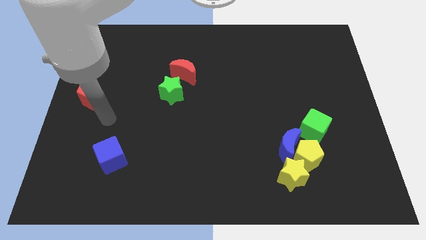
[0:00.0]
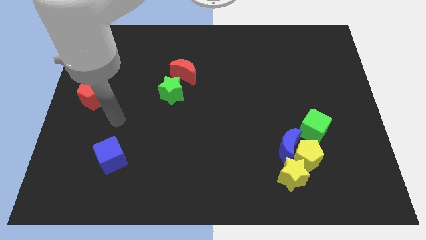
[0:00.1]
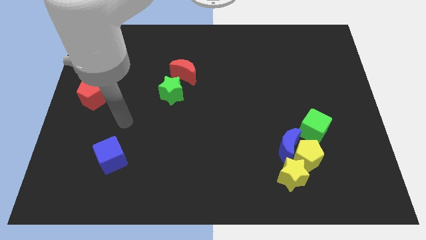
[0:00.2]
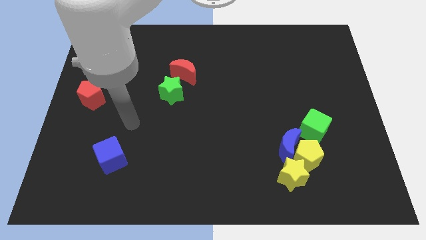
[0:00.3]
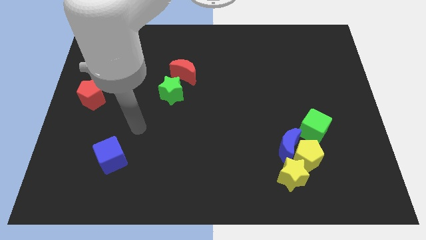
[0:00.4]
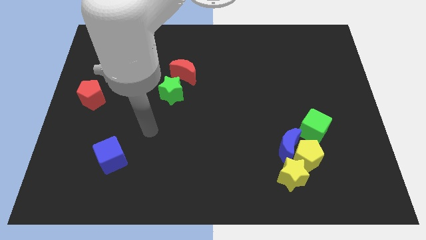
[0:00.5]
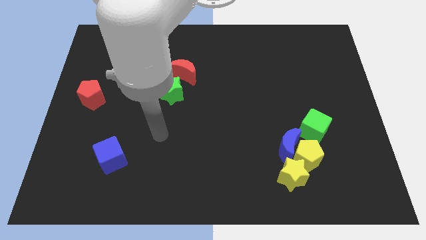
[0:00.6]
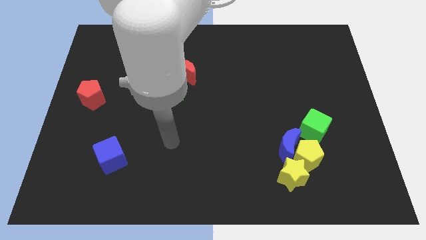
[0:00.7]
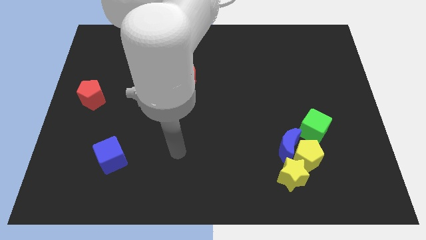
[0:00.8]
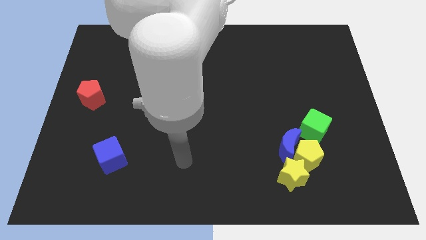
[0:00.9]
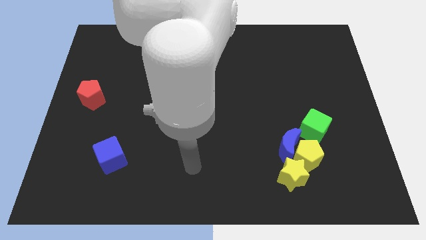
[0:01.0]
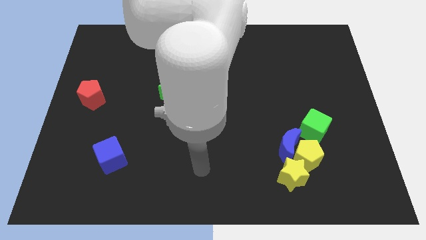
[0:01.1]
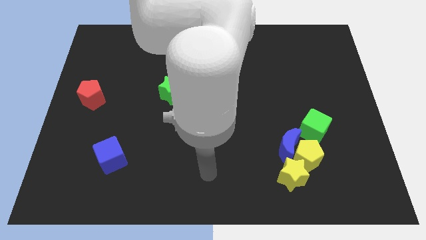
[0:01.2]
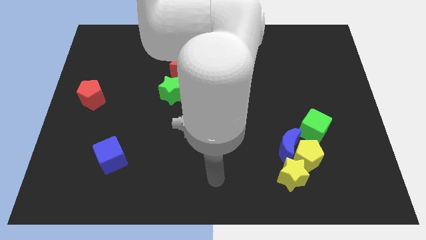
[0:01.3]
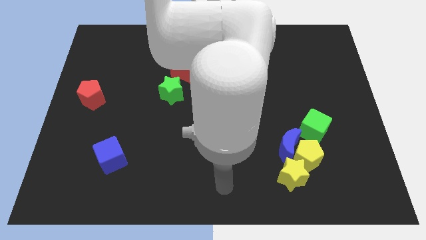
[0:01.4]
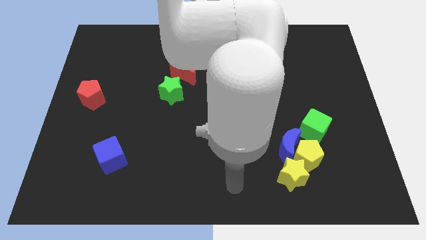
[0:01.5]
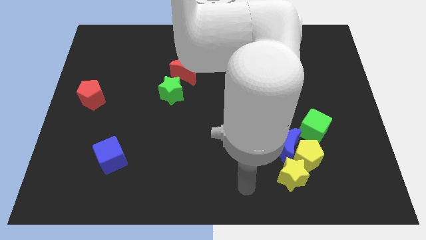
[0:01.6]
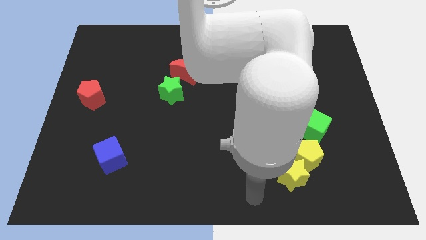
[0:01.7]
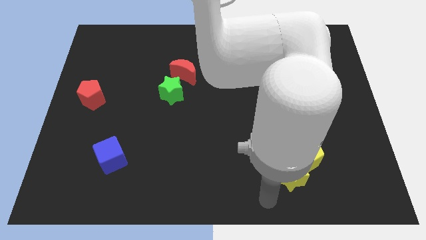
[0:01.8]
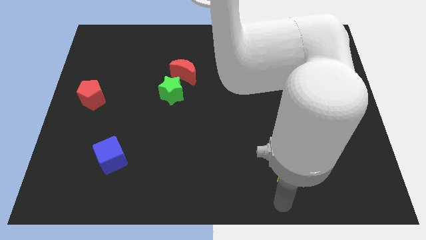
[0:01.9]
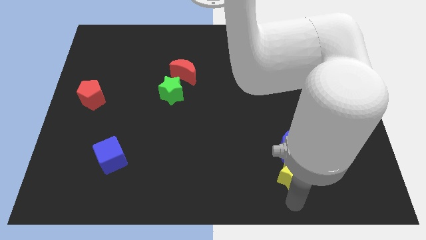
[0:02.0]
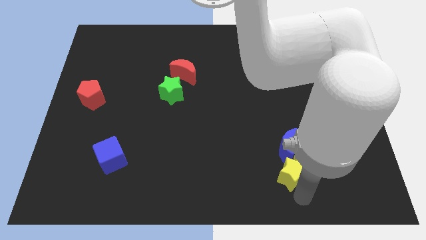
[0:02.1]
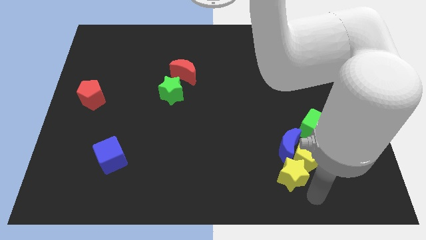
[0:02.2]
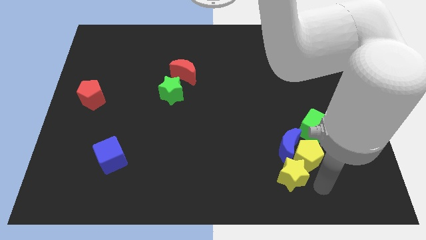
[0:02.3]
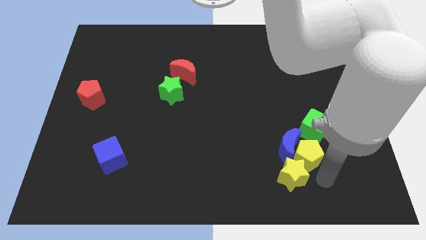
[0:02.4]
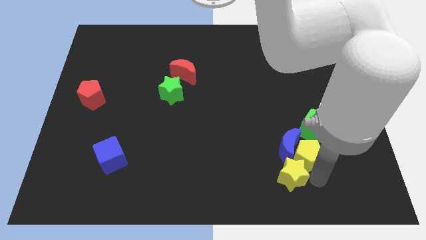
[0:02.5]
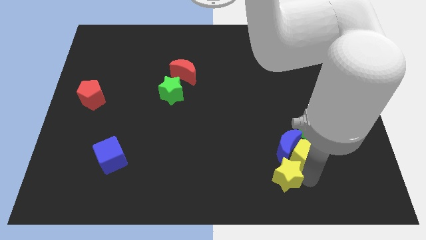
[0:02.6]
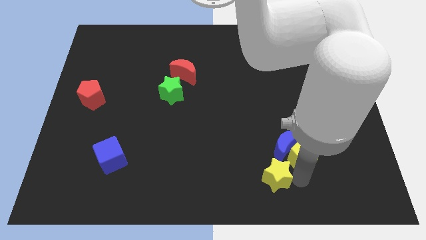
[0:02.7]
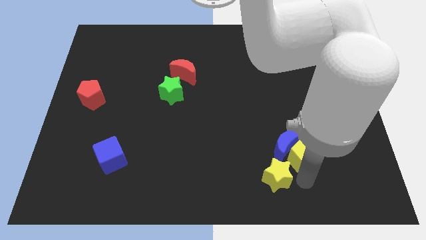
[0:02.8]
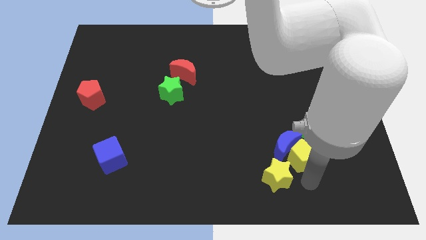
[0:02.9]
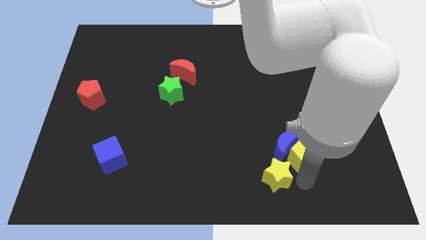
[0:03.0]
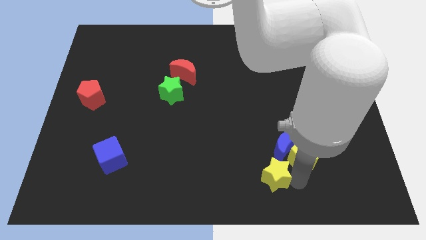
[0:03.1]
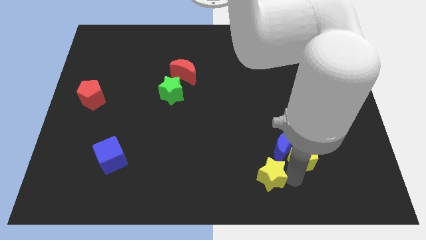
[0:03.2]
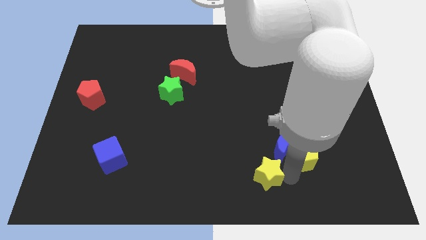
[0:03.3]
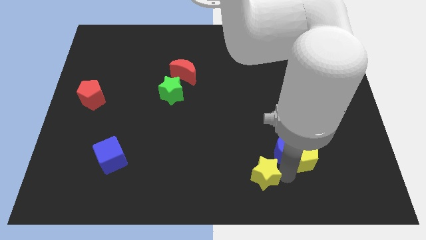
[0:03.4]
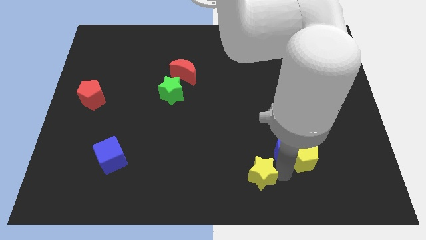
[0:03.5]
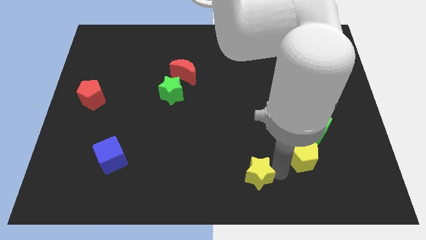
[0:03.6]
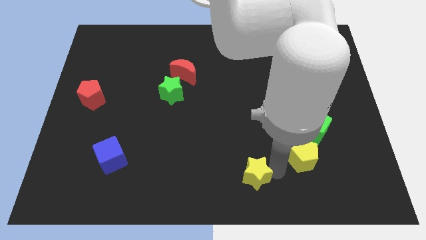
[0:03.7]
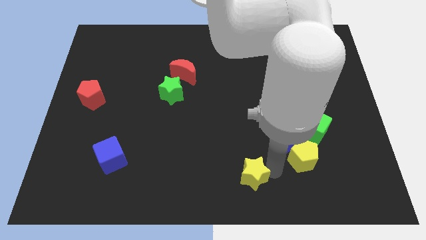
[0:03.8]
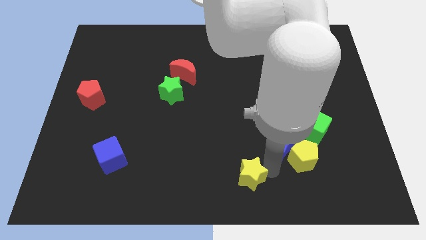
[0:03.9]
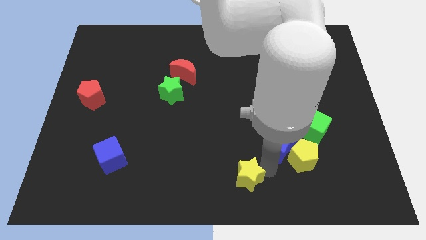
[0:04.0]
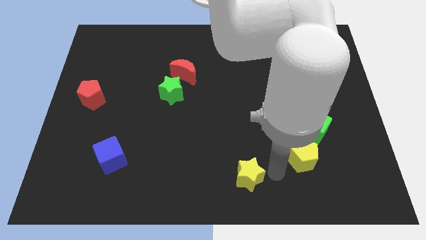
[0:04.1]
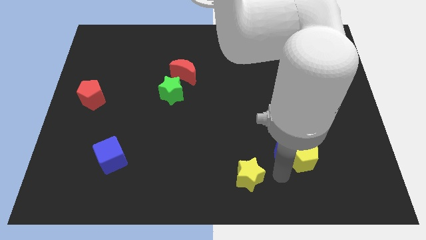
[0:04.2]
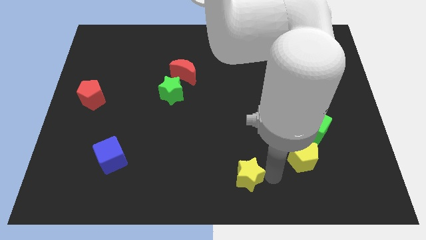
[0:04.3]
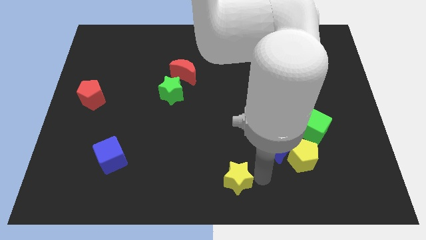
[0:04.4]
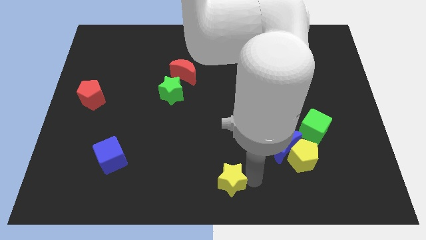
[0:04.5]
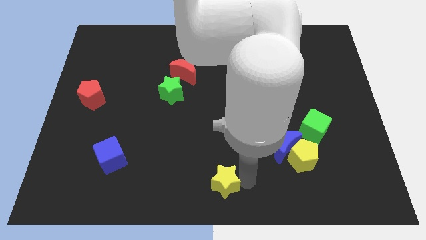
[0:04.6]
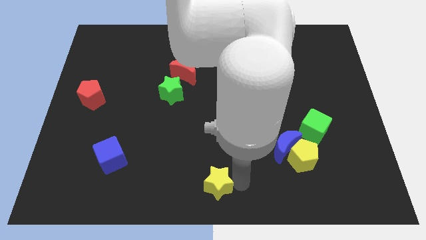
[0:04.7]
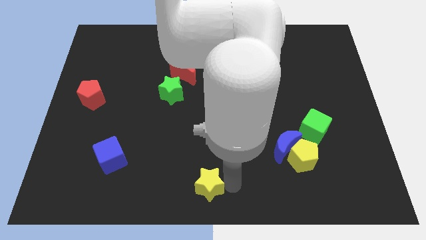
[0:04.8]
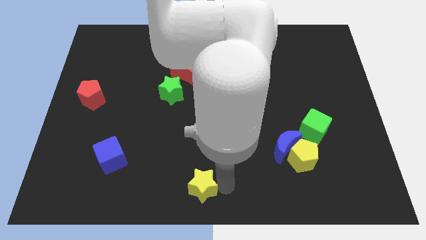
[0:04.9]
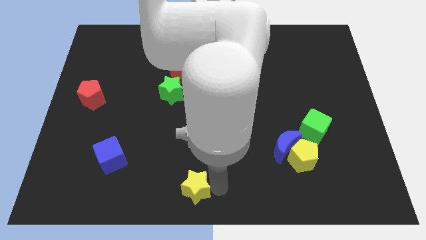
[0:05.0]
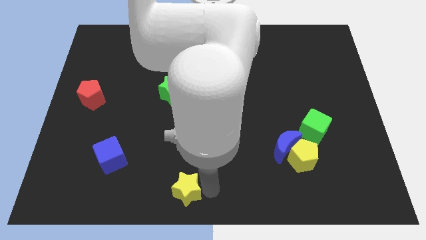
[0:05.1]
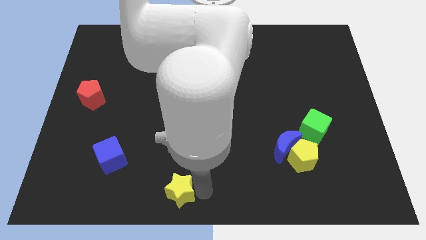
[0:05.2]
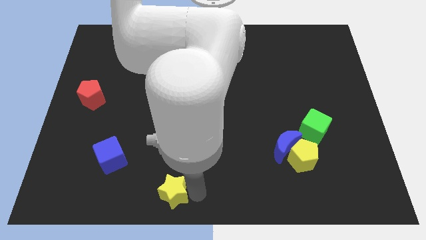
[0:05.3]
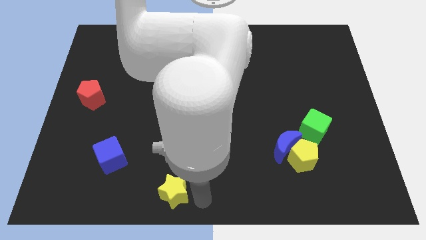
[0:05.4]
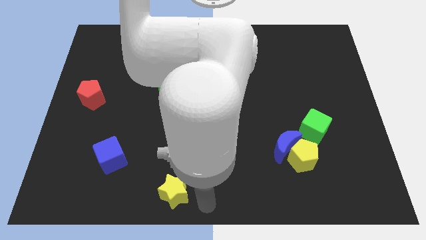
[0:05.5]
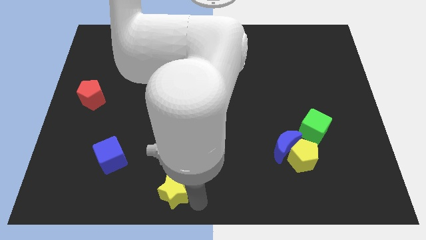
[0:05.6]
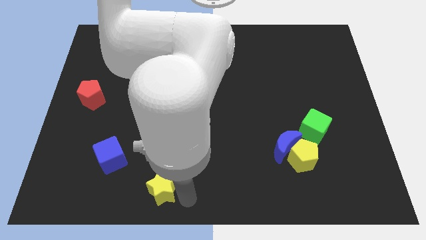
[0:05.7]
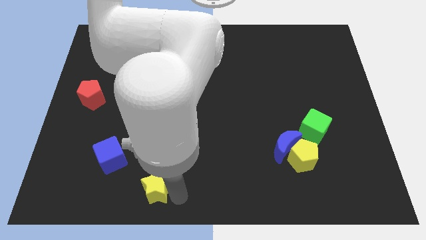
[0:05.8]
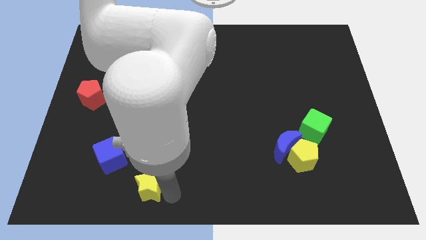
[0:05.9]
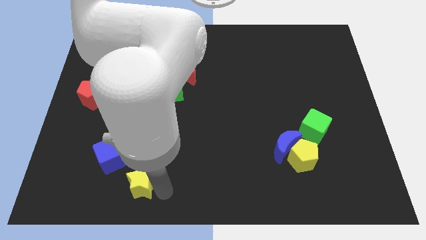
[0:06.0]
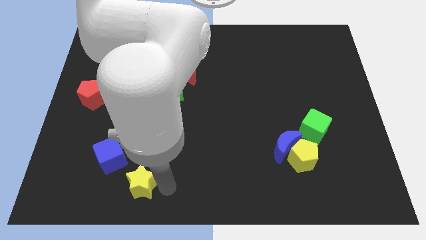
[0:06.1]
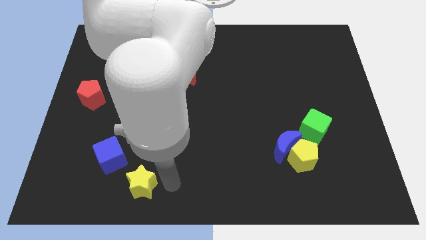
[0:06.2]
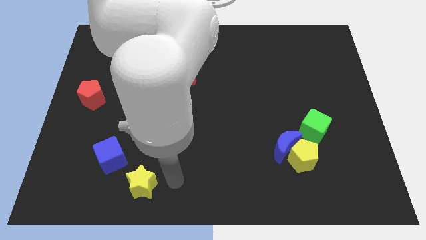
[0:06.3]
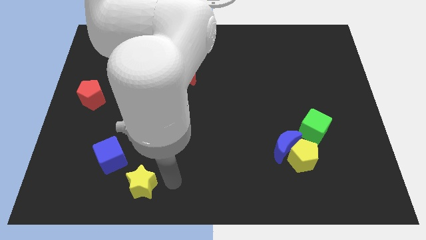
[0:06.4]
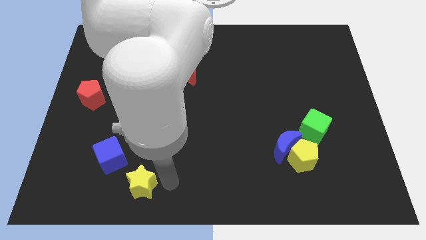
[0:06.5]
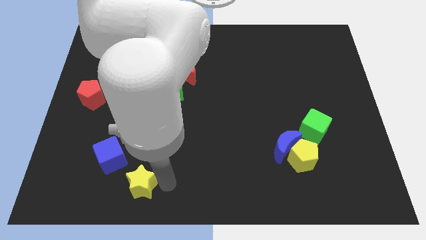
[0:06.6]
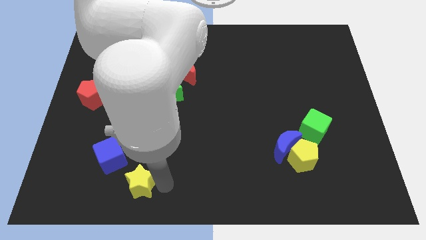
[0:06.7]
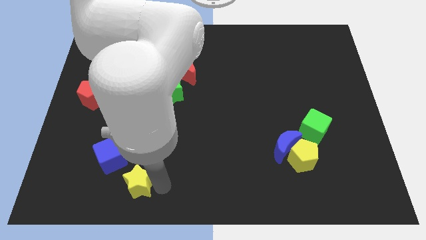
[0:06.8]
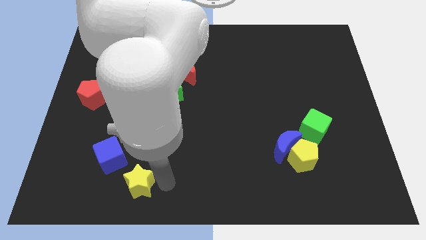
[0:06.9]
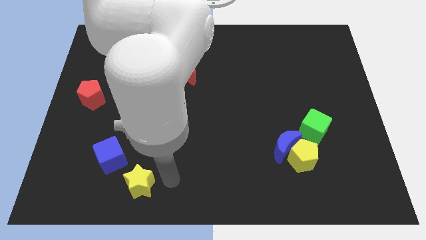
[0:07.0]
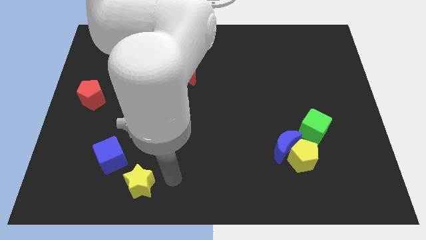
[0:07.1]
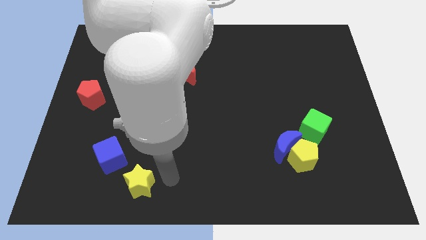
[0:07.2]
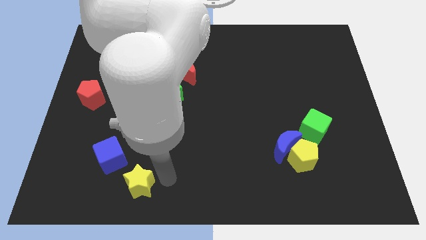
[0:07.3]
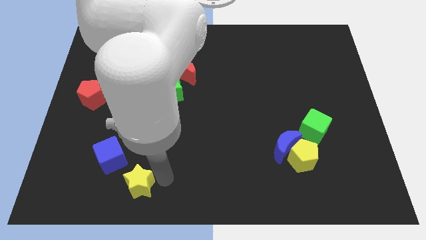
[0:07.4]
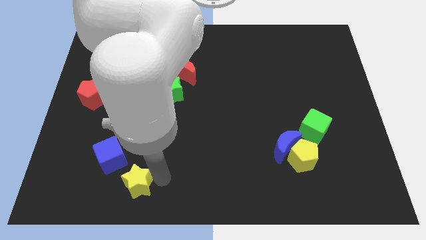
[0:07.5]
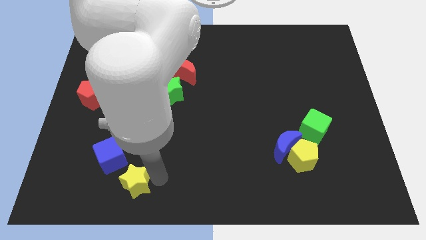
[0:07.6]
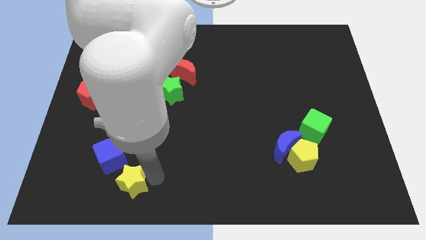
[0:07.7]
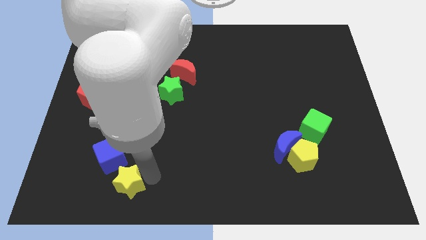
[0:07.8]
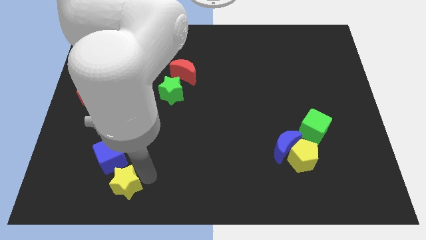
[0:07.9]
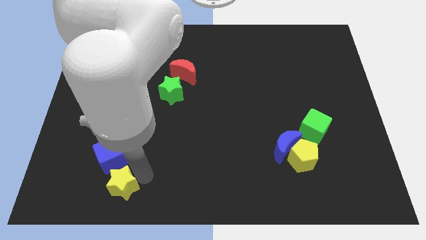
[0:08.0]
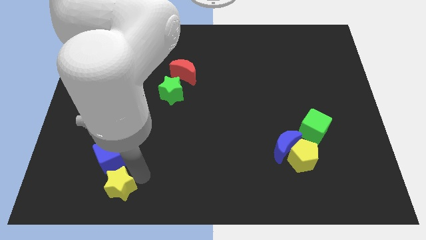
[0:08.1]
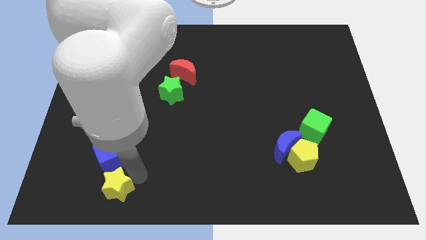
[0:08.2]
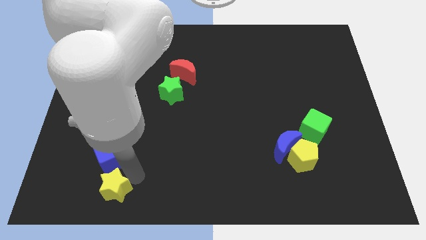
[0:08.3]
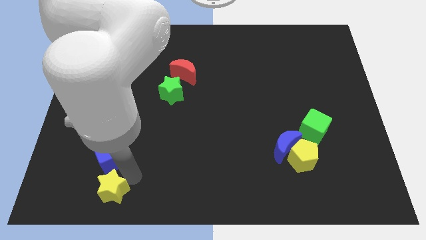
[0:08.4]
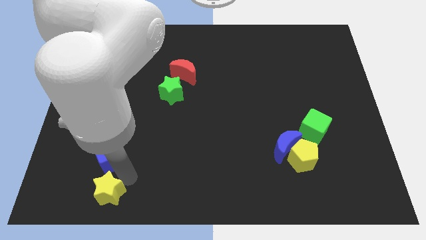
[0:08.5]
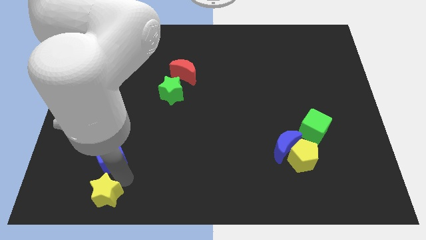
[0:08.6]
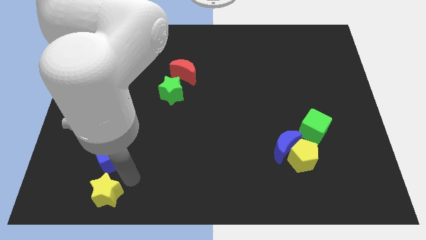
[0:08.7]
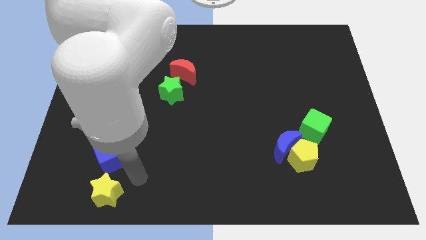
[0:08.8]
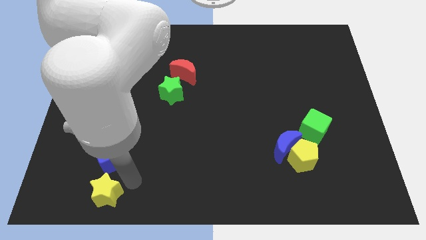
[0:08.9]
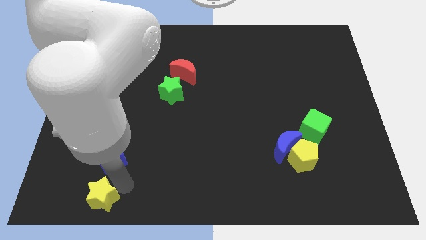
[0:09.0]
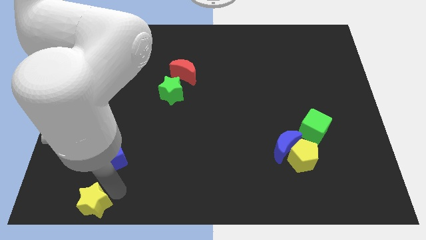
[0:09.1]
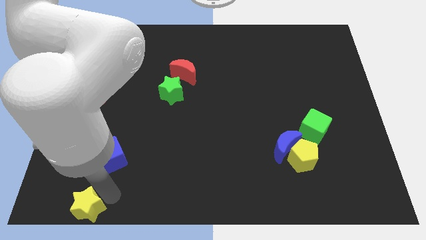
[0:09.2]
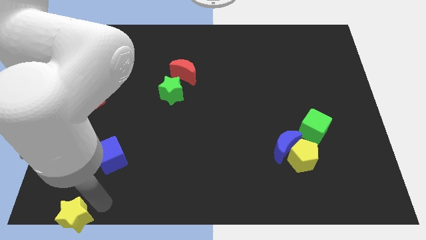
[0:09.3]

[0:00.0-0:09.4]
put the yellow star to the lower left corner
